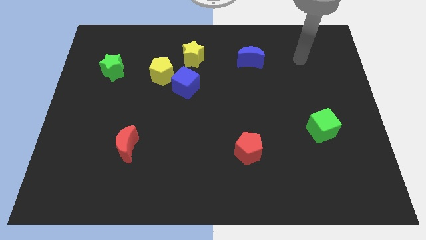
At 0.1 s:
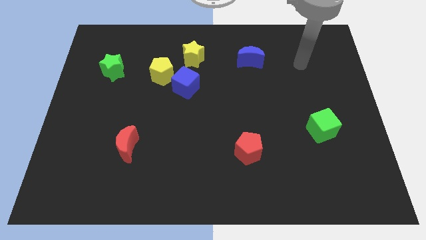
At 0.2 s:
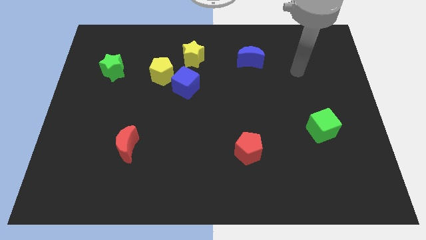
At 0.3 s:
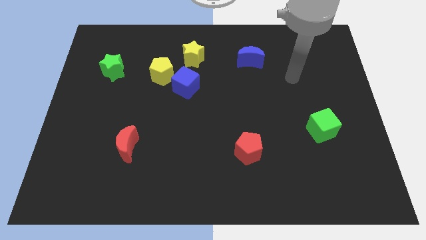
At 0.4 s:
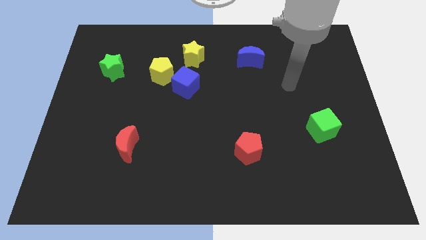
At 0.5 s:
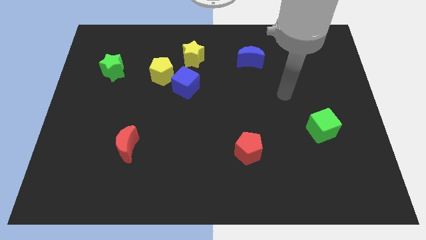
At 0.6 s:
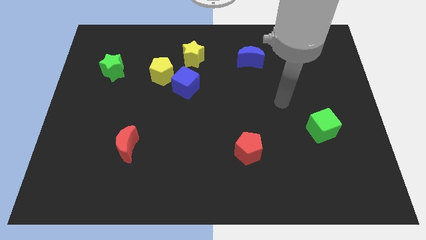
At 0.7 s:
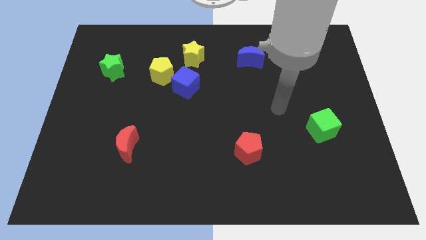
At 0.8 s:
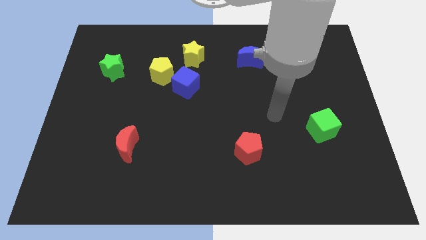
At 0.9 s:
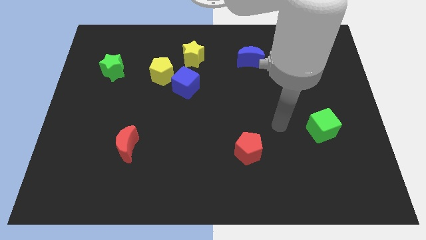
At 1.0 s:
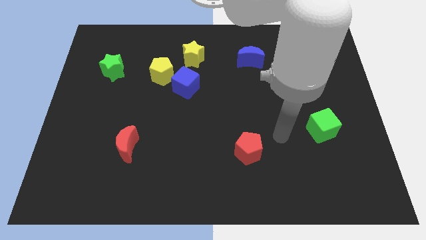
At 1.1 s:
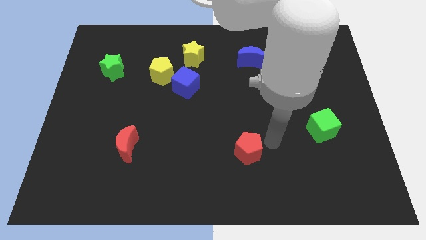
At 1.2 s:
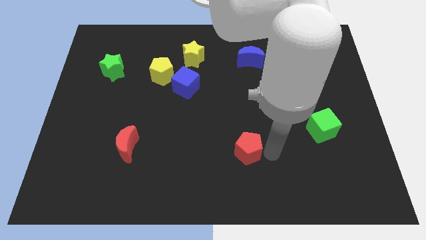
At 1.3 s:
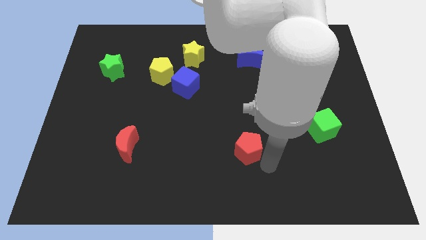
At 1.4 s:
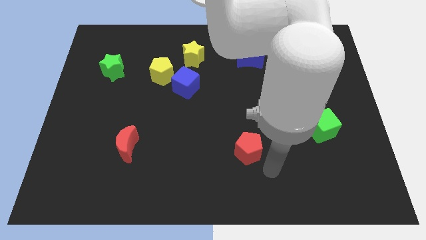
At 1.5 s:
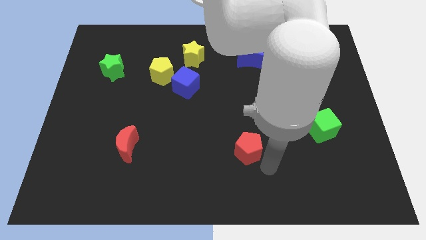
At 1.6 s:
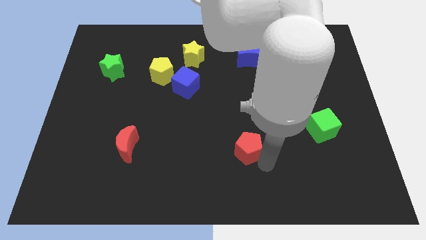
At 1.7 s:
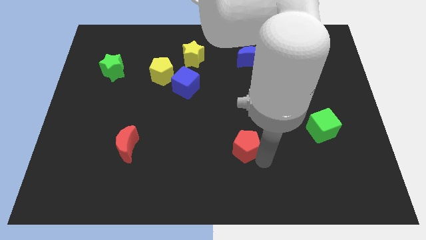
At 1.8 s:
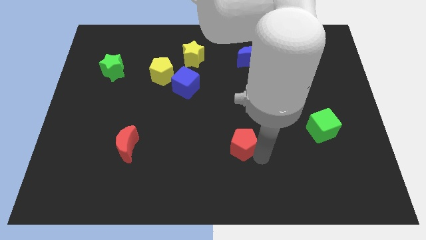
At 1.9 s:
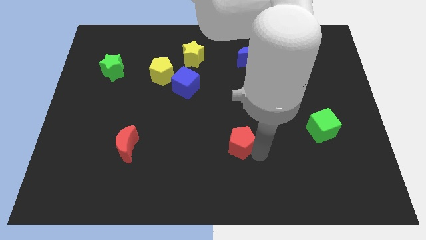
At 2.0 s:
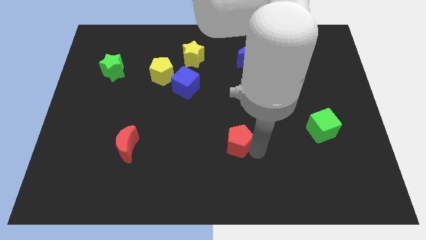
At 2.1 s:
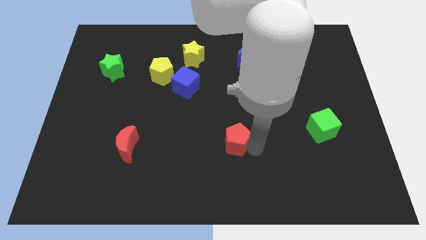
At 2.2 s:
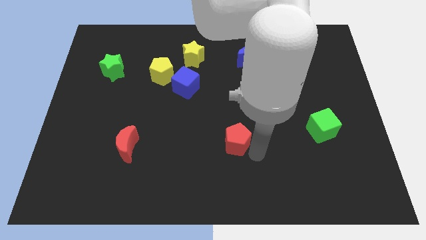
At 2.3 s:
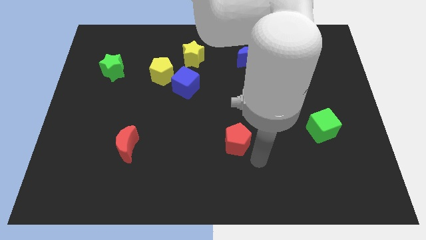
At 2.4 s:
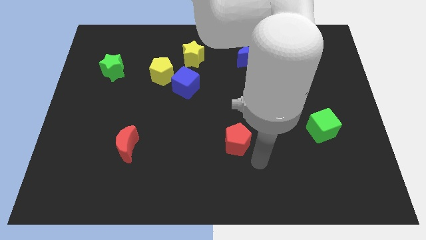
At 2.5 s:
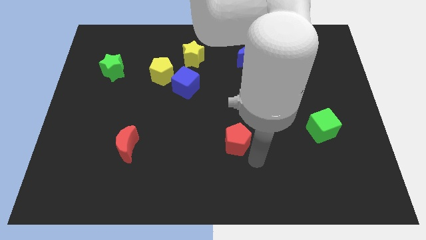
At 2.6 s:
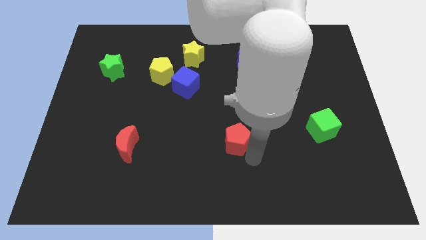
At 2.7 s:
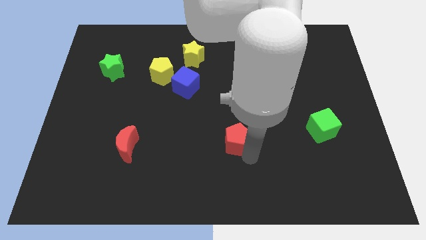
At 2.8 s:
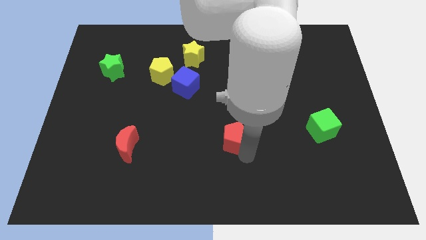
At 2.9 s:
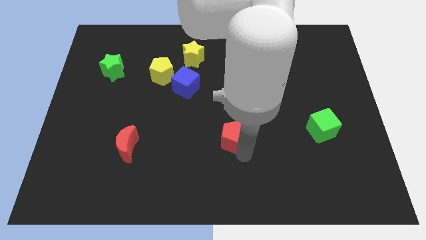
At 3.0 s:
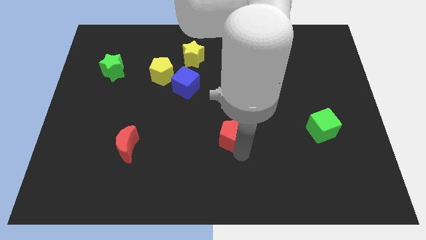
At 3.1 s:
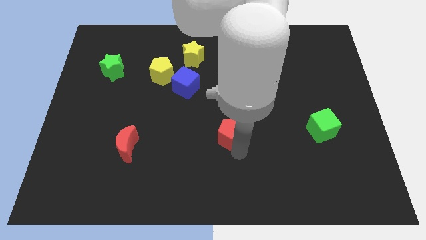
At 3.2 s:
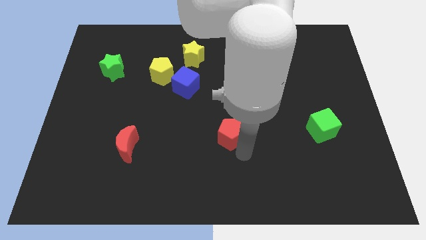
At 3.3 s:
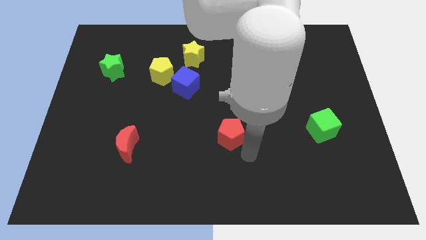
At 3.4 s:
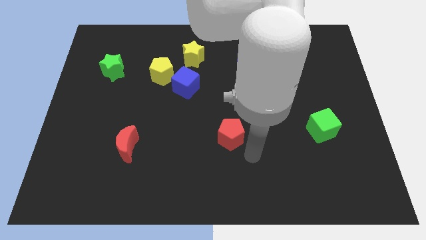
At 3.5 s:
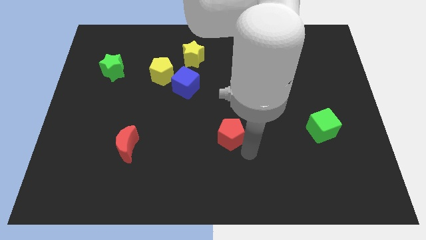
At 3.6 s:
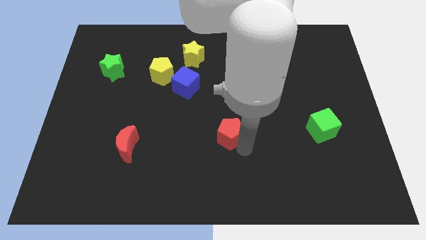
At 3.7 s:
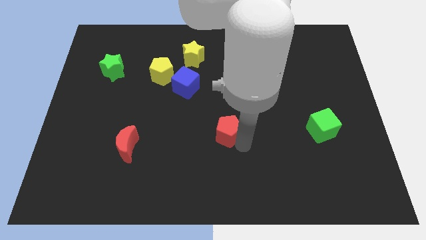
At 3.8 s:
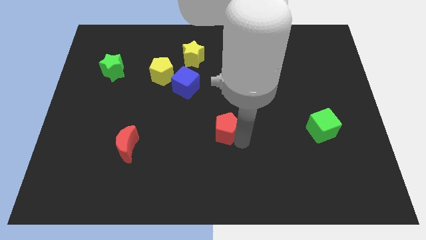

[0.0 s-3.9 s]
slightly push the red pentagon diagonally upwards and to the left

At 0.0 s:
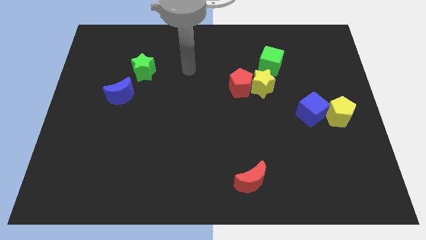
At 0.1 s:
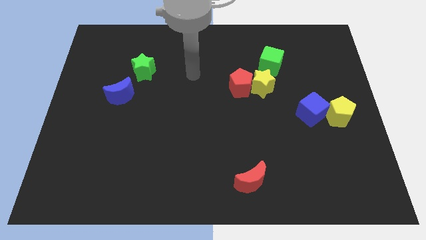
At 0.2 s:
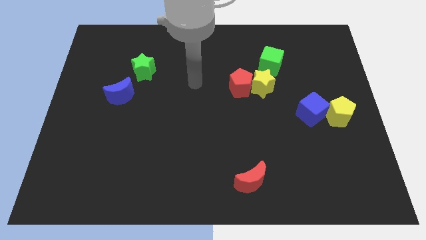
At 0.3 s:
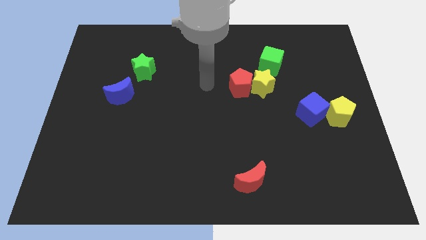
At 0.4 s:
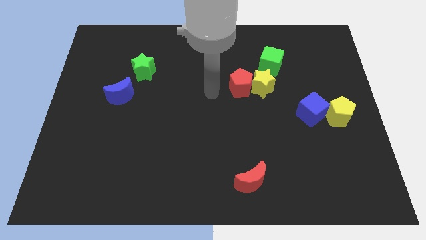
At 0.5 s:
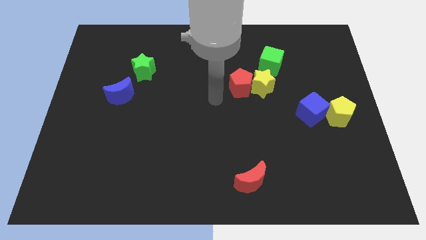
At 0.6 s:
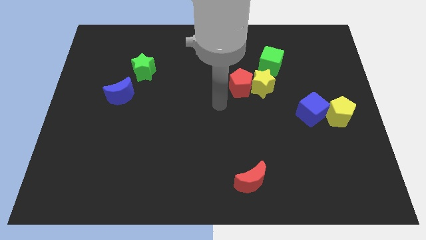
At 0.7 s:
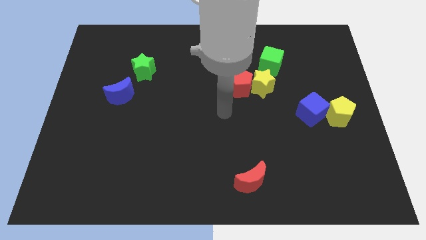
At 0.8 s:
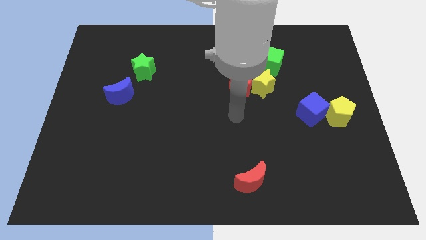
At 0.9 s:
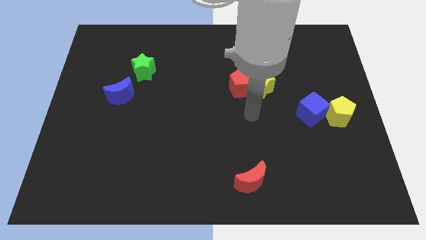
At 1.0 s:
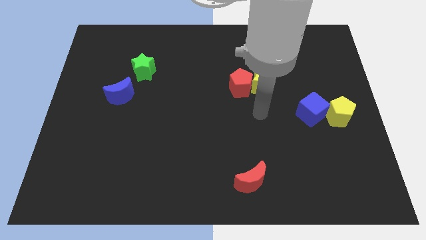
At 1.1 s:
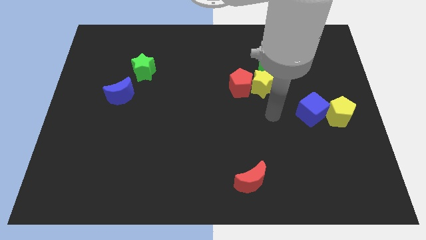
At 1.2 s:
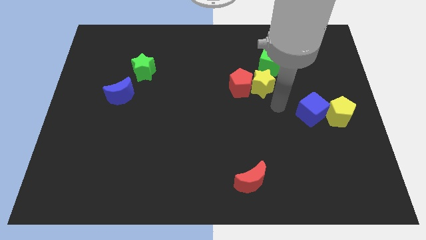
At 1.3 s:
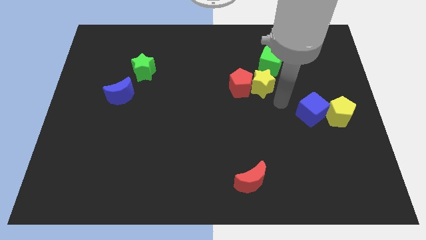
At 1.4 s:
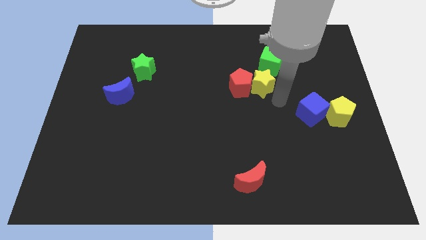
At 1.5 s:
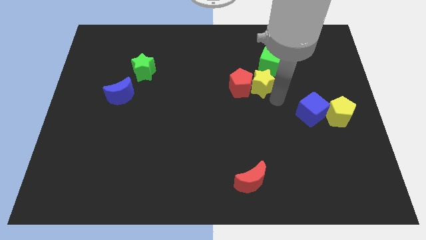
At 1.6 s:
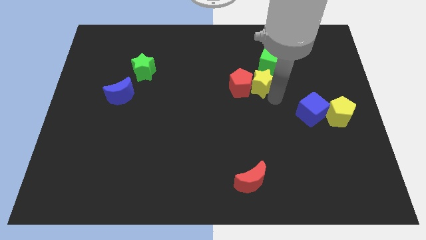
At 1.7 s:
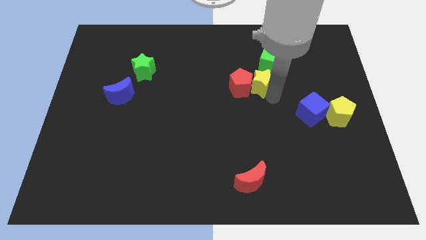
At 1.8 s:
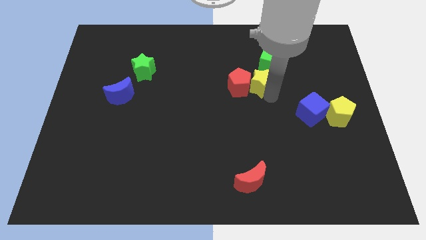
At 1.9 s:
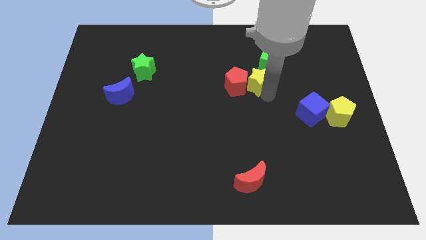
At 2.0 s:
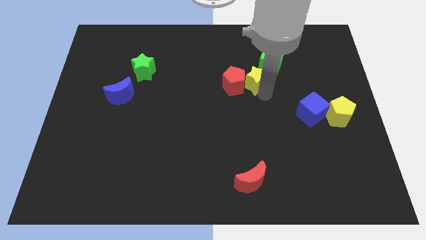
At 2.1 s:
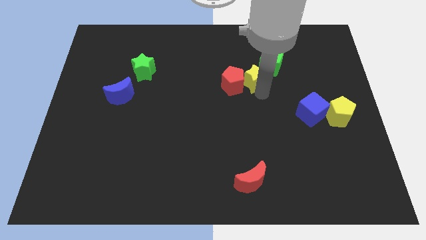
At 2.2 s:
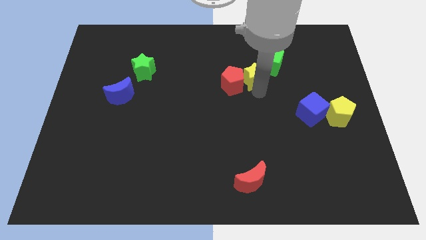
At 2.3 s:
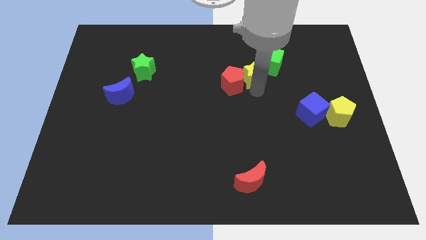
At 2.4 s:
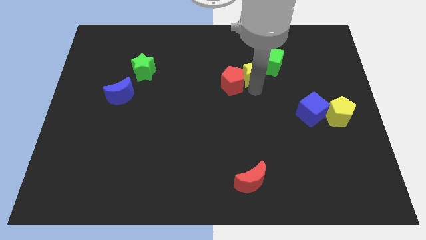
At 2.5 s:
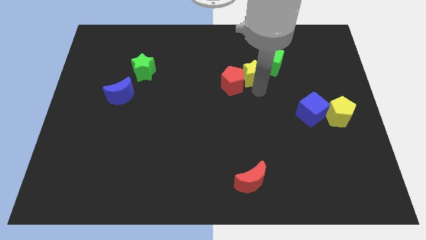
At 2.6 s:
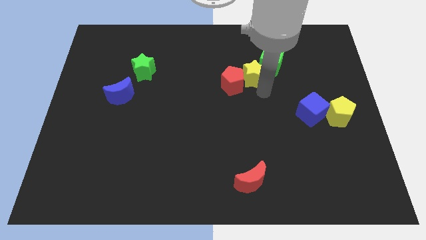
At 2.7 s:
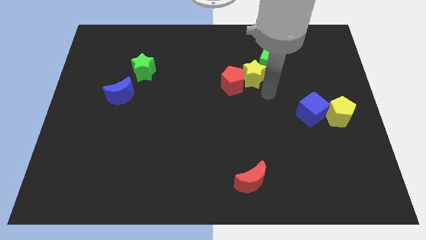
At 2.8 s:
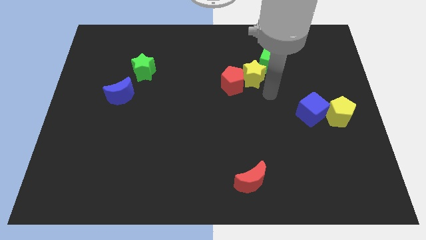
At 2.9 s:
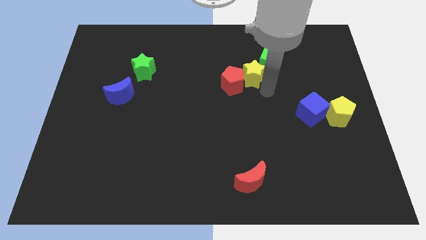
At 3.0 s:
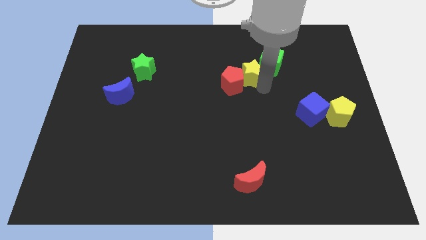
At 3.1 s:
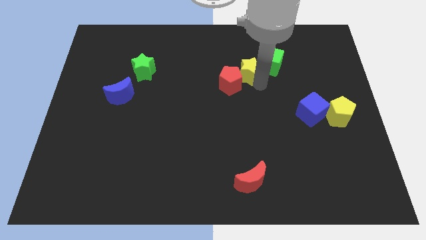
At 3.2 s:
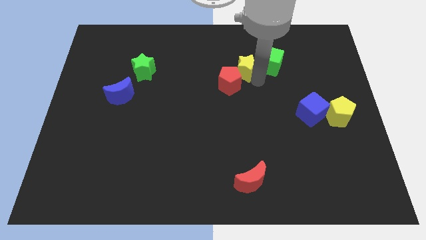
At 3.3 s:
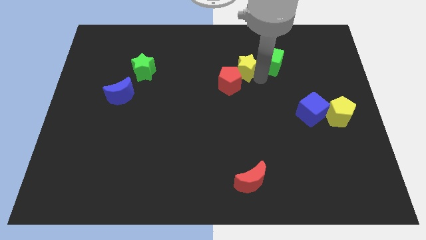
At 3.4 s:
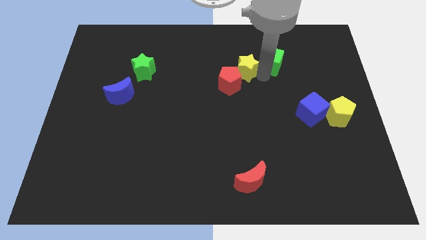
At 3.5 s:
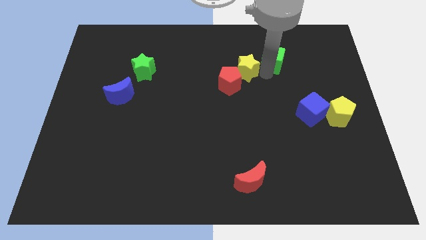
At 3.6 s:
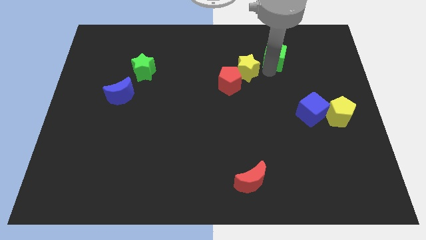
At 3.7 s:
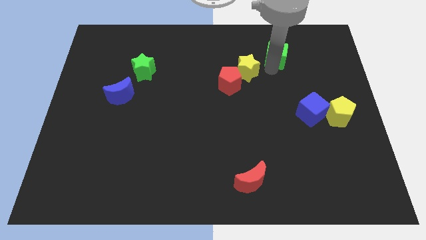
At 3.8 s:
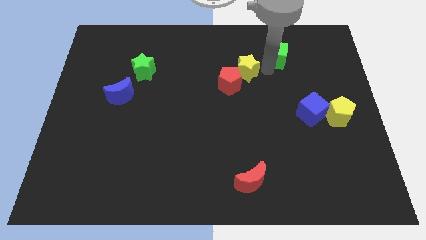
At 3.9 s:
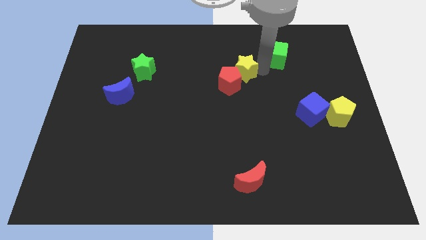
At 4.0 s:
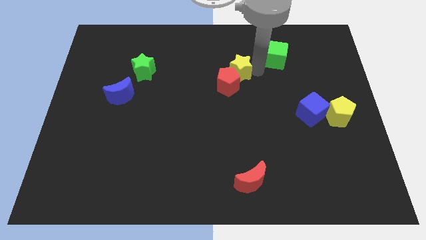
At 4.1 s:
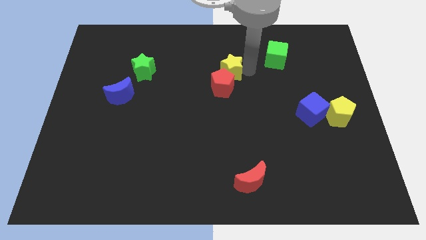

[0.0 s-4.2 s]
slightly slide the yellow star to the left
